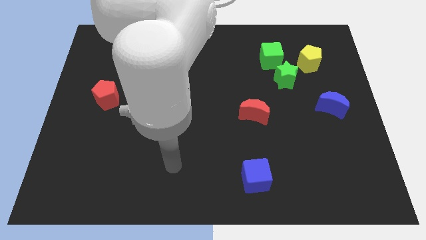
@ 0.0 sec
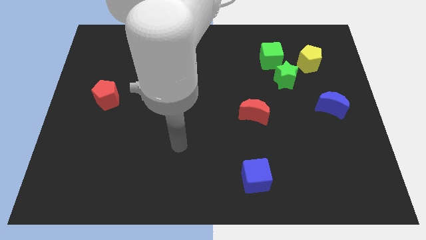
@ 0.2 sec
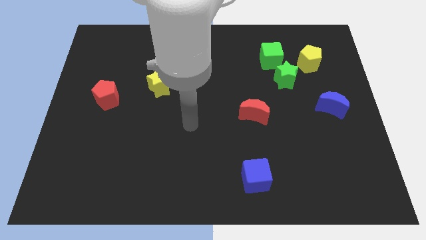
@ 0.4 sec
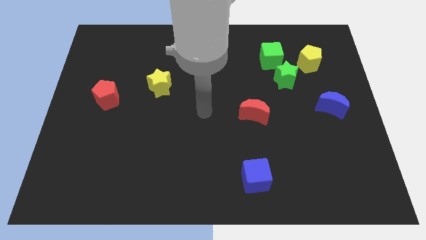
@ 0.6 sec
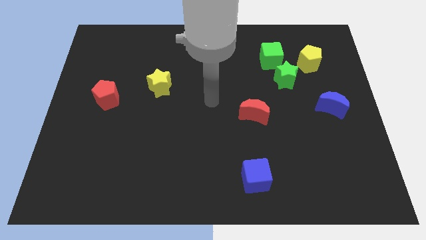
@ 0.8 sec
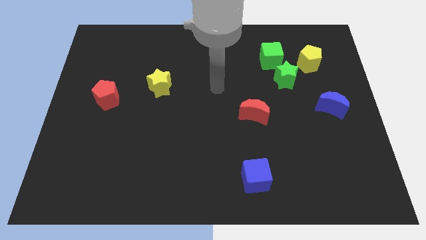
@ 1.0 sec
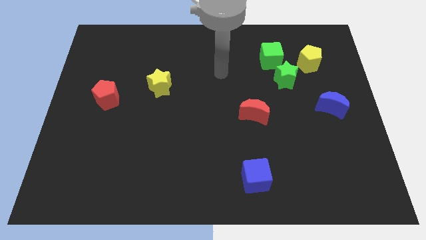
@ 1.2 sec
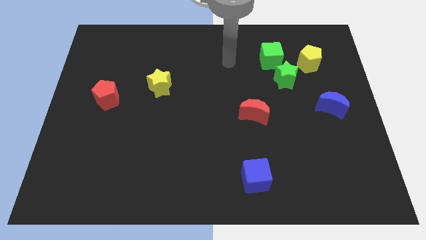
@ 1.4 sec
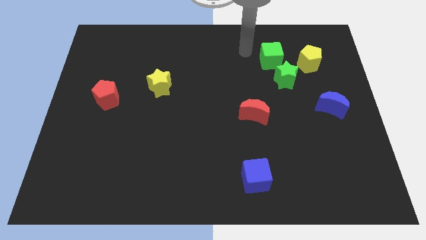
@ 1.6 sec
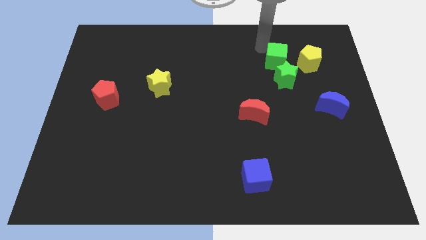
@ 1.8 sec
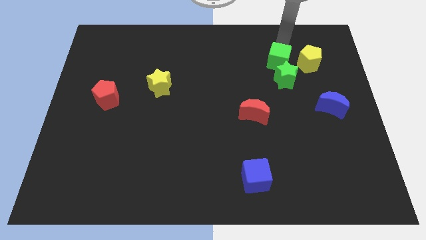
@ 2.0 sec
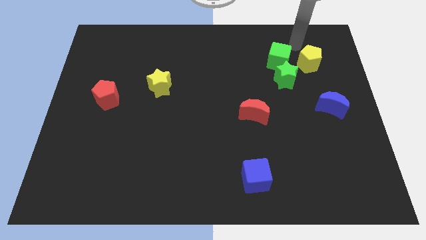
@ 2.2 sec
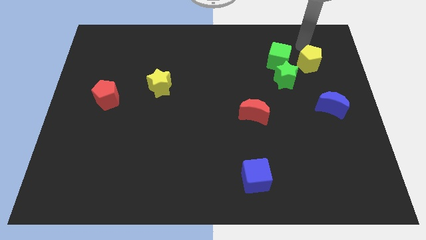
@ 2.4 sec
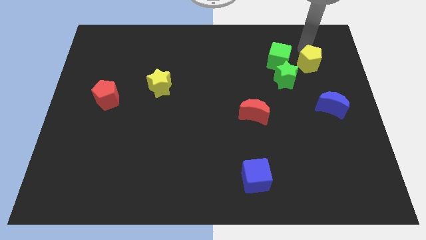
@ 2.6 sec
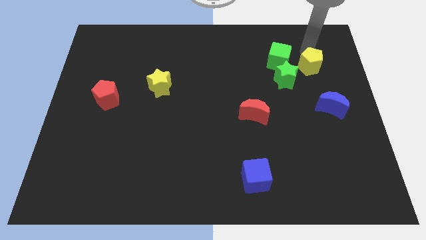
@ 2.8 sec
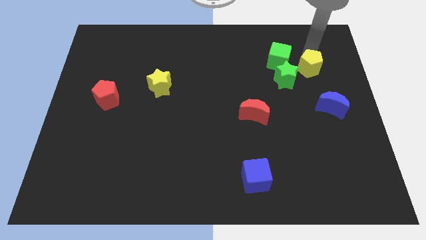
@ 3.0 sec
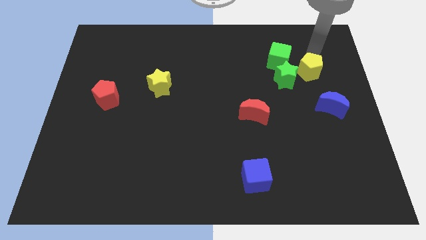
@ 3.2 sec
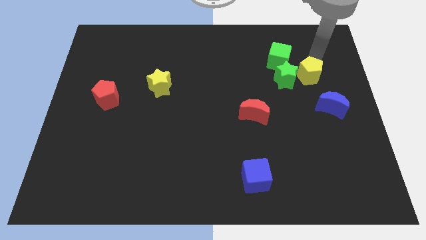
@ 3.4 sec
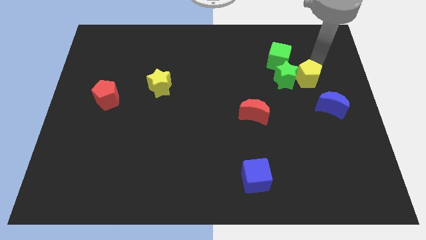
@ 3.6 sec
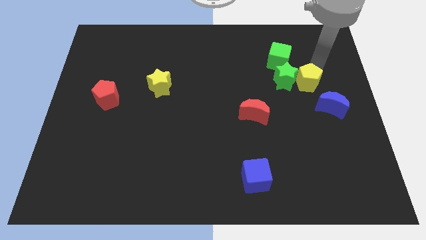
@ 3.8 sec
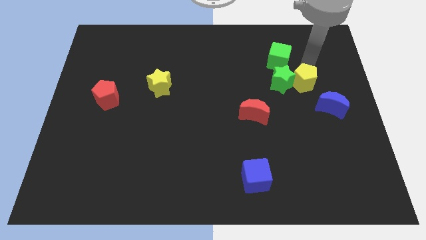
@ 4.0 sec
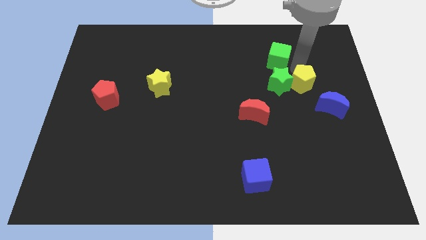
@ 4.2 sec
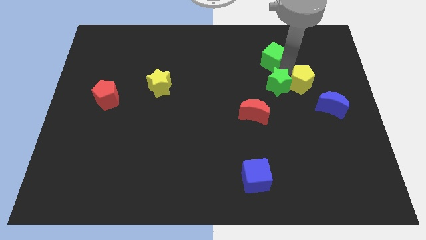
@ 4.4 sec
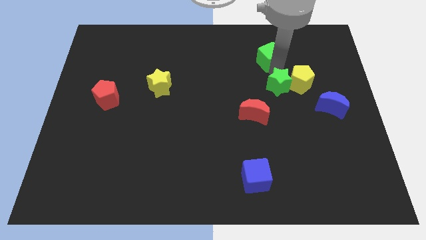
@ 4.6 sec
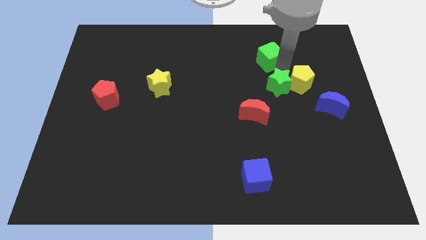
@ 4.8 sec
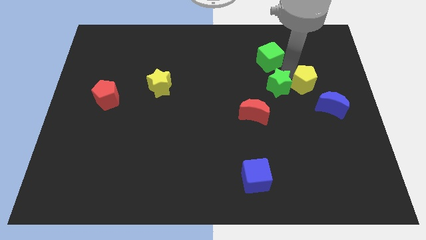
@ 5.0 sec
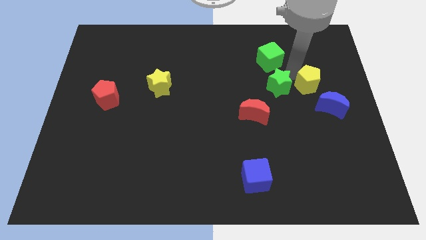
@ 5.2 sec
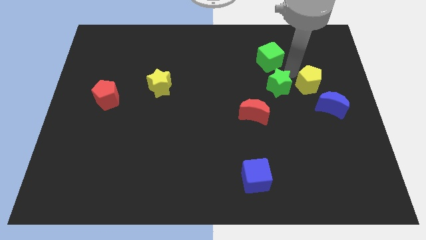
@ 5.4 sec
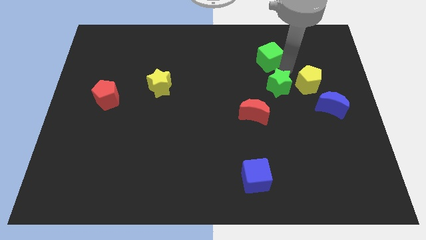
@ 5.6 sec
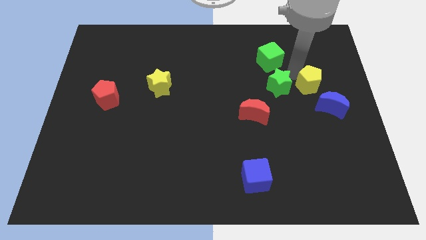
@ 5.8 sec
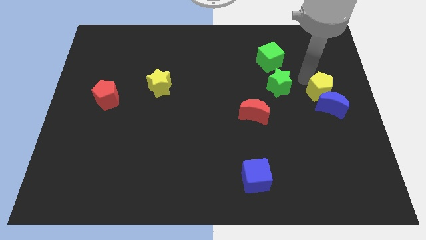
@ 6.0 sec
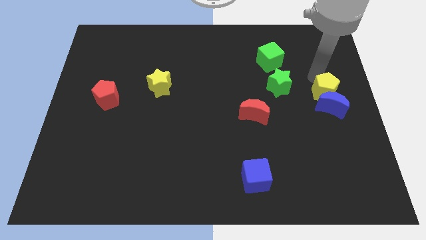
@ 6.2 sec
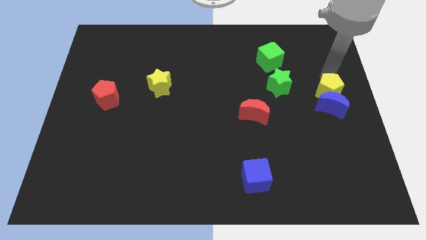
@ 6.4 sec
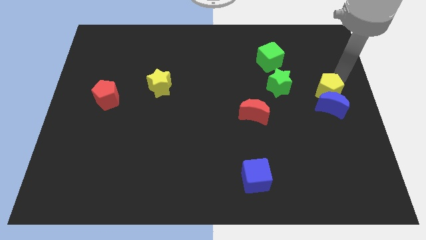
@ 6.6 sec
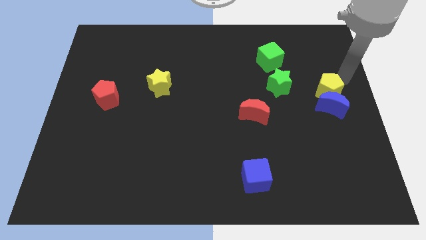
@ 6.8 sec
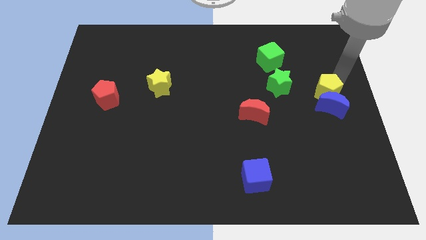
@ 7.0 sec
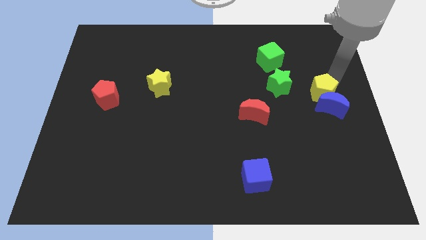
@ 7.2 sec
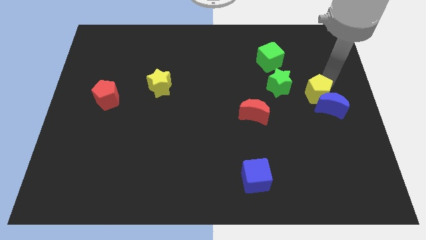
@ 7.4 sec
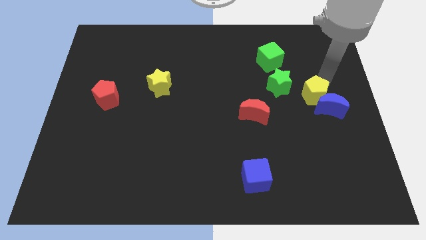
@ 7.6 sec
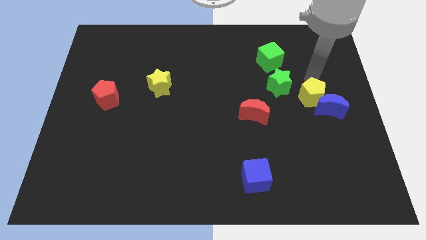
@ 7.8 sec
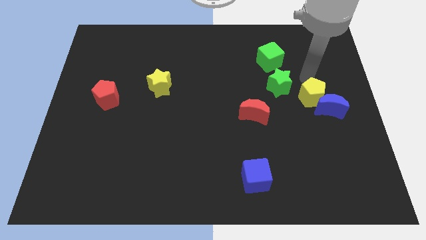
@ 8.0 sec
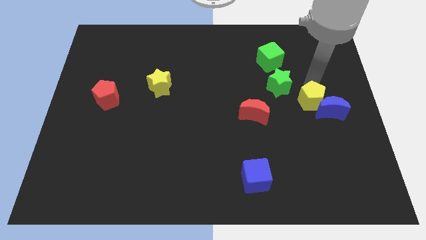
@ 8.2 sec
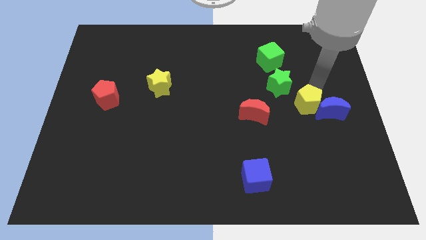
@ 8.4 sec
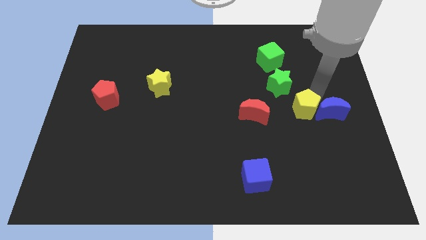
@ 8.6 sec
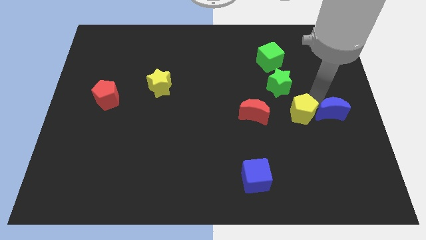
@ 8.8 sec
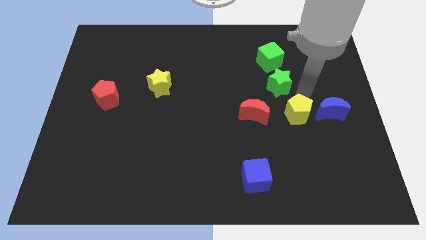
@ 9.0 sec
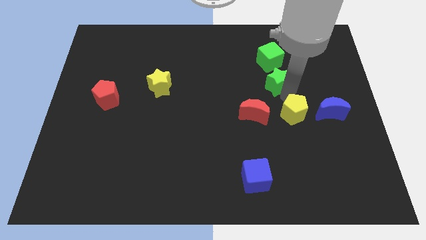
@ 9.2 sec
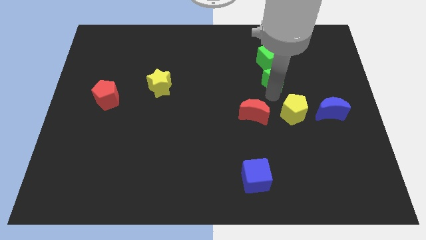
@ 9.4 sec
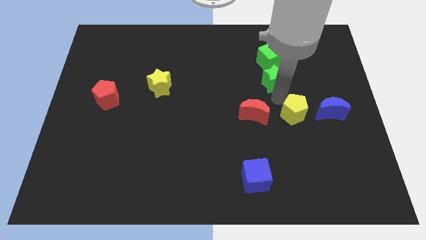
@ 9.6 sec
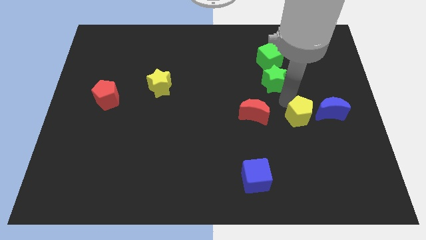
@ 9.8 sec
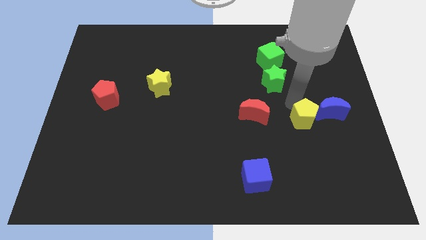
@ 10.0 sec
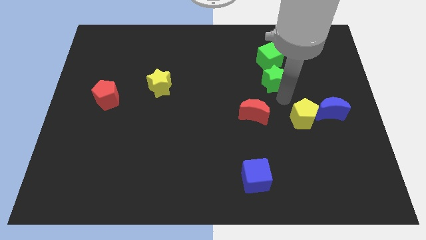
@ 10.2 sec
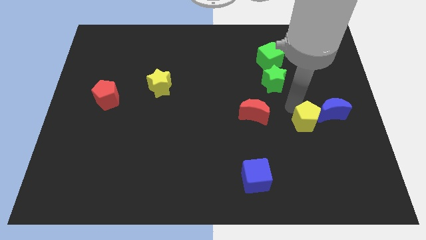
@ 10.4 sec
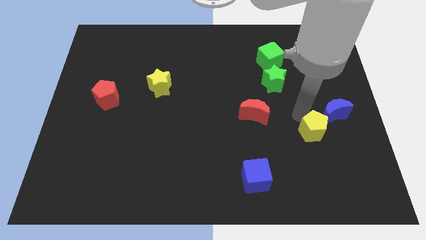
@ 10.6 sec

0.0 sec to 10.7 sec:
slide the yellow pentagon down

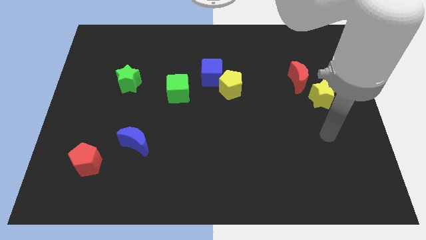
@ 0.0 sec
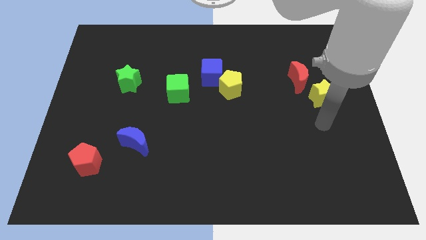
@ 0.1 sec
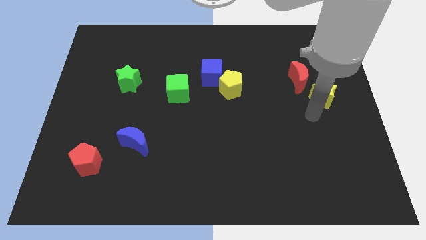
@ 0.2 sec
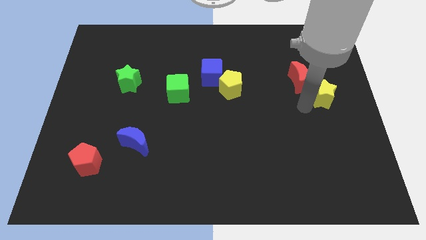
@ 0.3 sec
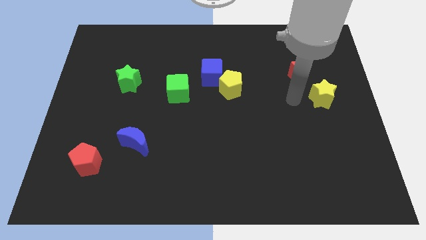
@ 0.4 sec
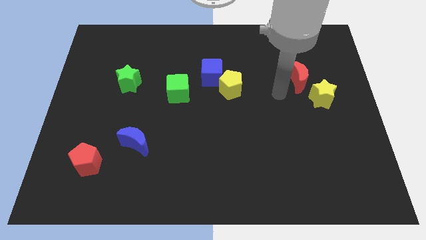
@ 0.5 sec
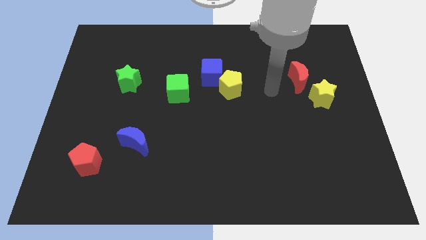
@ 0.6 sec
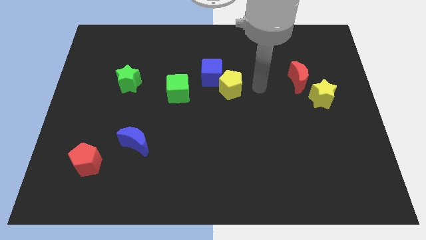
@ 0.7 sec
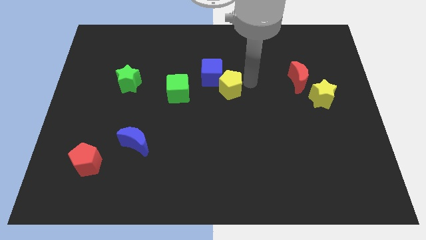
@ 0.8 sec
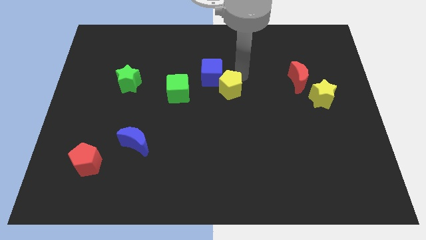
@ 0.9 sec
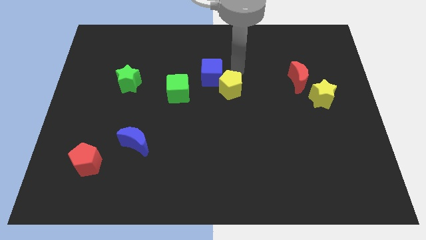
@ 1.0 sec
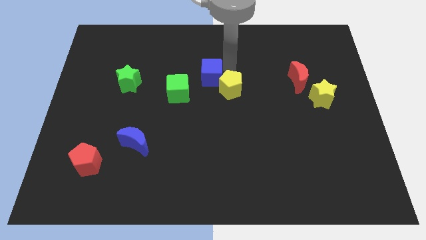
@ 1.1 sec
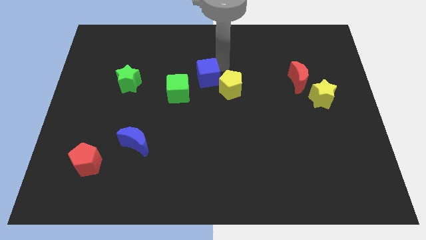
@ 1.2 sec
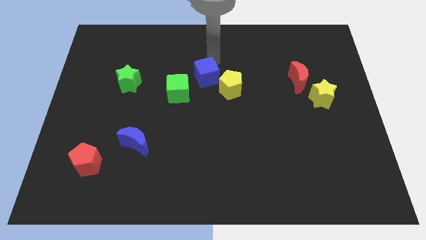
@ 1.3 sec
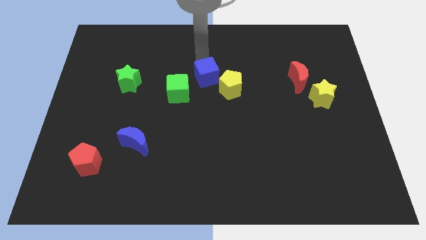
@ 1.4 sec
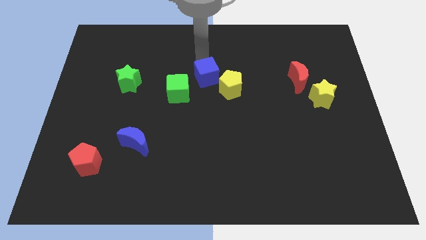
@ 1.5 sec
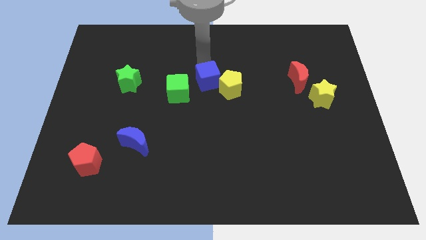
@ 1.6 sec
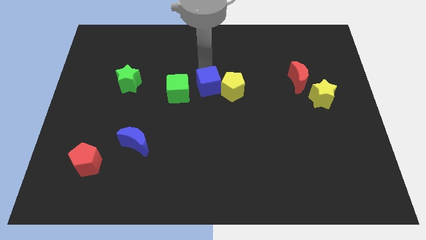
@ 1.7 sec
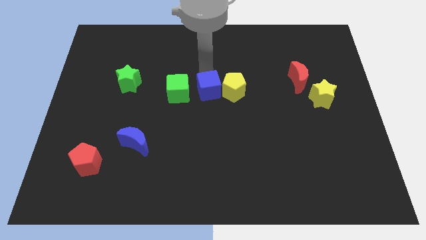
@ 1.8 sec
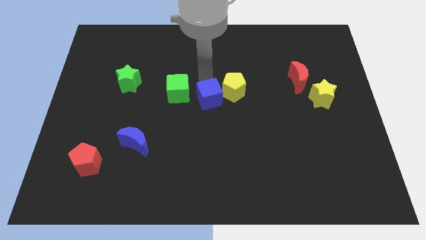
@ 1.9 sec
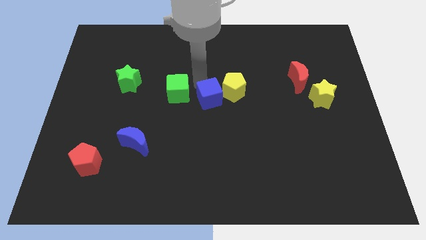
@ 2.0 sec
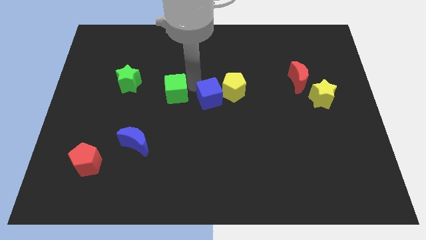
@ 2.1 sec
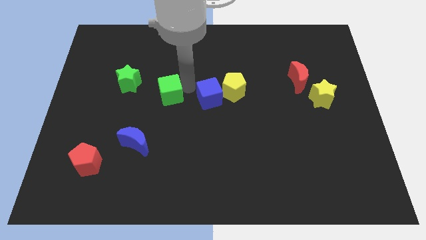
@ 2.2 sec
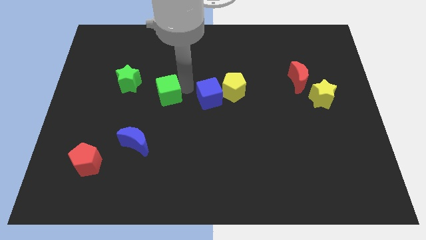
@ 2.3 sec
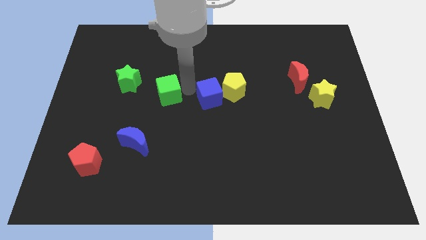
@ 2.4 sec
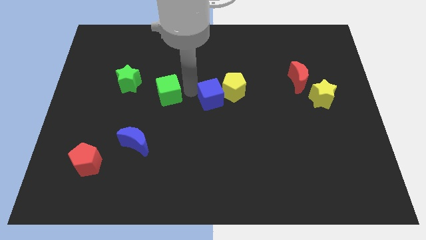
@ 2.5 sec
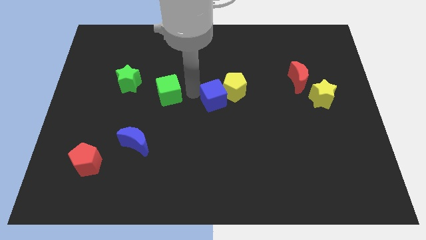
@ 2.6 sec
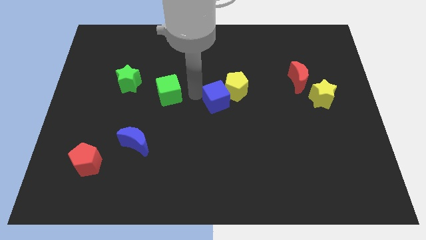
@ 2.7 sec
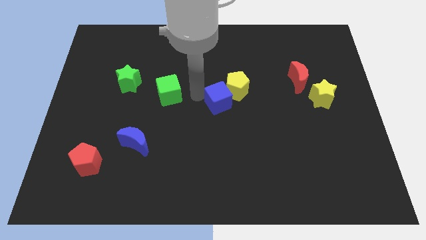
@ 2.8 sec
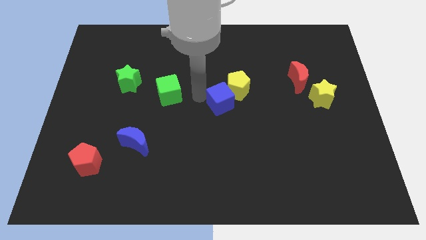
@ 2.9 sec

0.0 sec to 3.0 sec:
slide the blue cube a bit downwards and to the right diagonally
